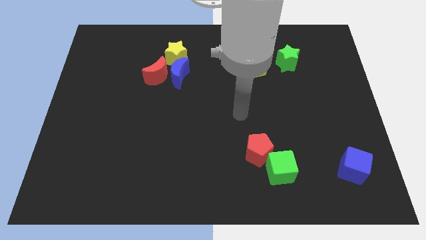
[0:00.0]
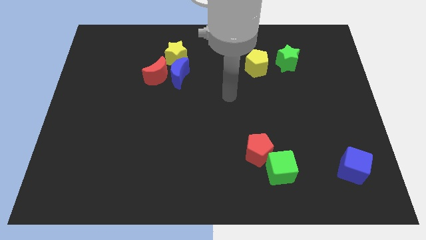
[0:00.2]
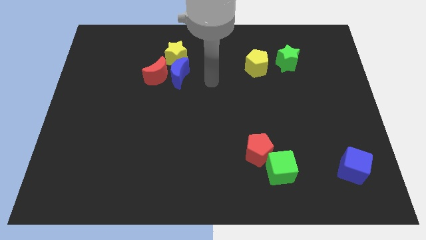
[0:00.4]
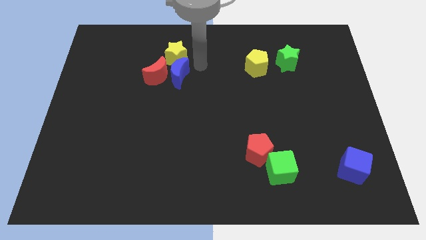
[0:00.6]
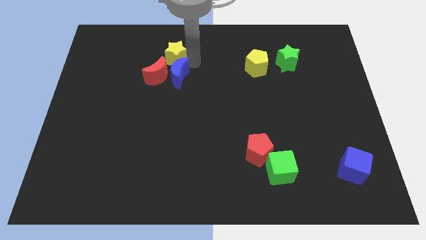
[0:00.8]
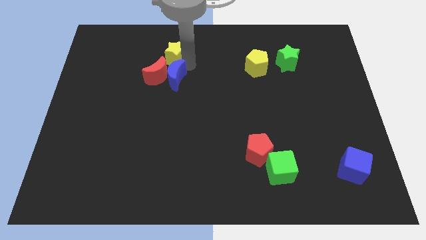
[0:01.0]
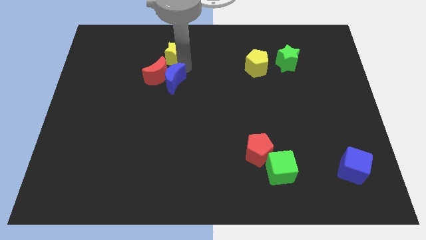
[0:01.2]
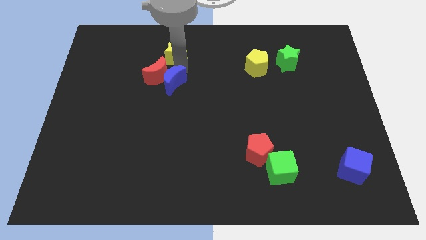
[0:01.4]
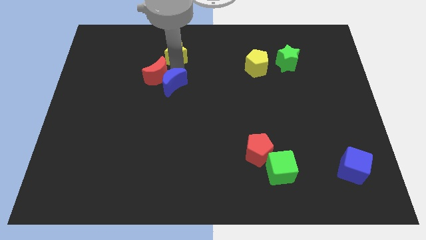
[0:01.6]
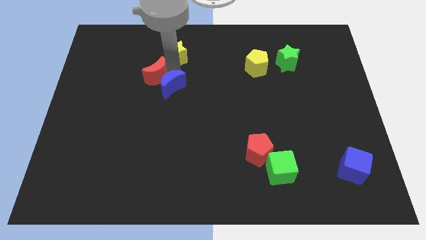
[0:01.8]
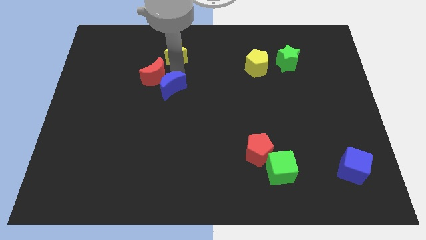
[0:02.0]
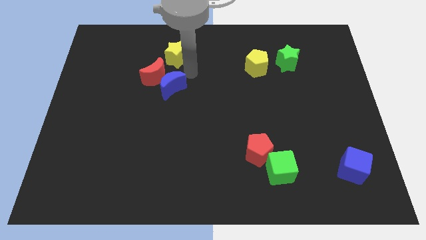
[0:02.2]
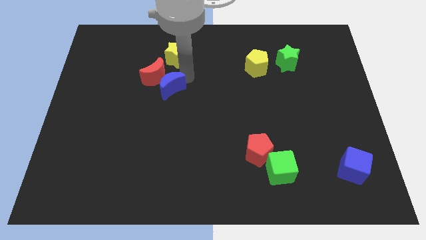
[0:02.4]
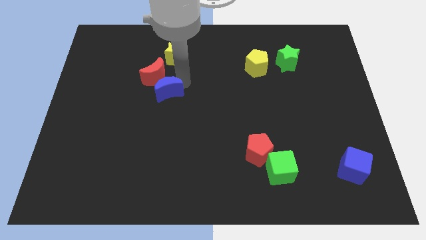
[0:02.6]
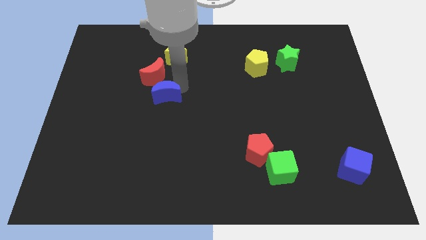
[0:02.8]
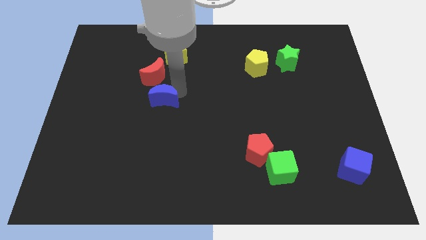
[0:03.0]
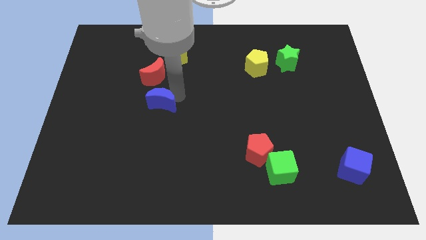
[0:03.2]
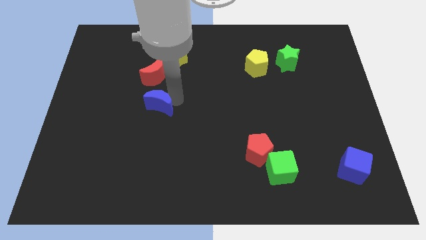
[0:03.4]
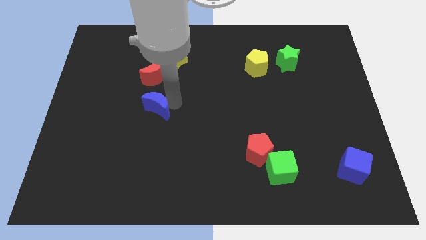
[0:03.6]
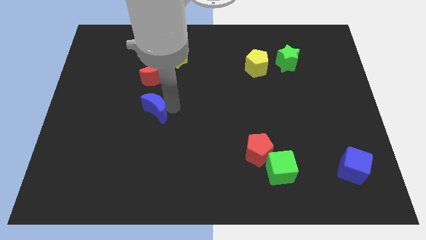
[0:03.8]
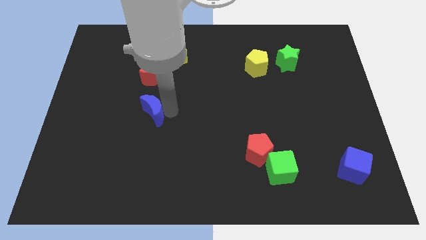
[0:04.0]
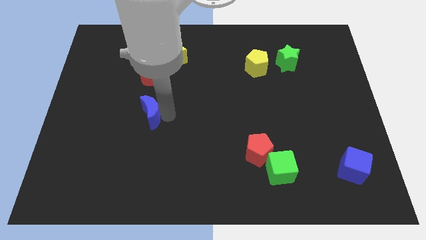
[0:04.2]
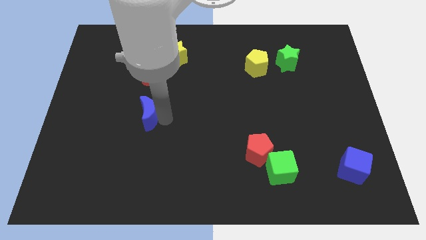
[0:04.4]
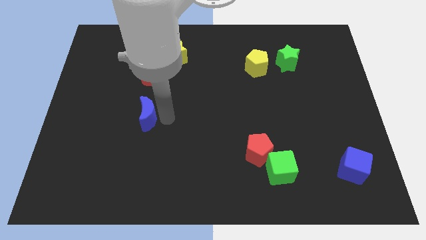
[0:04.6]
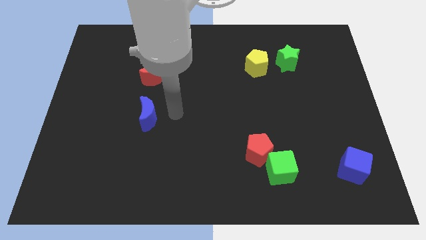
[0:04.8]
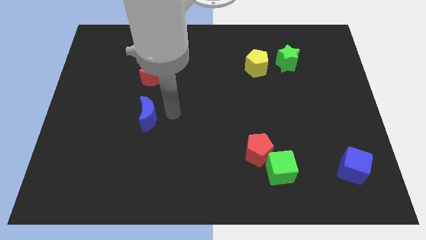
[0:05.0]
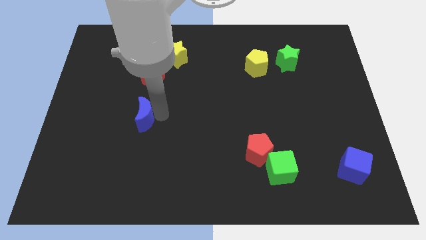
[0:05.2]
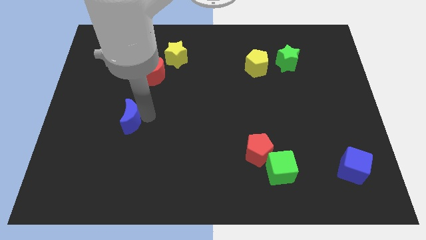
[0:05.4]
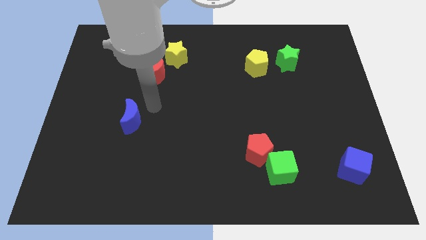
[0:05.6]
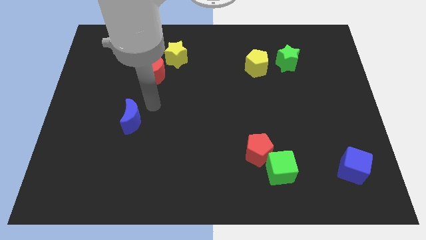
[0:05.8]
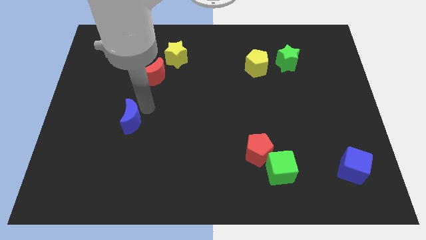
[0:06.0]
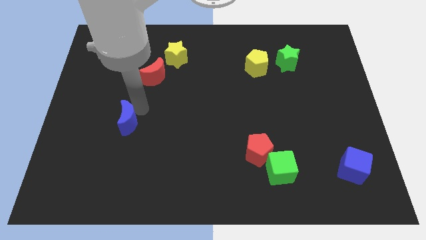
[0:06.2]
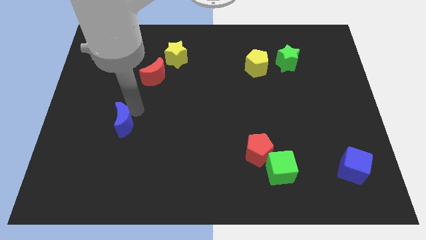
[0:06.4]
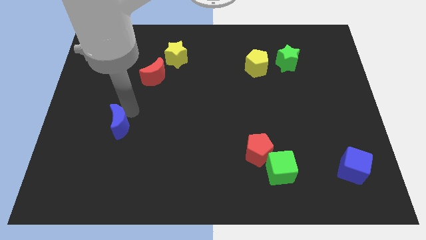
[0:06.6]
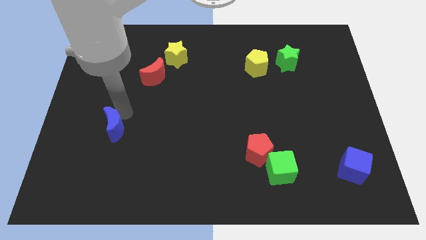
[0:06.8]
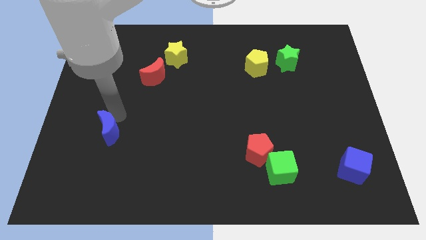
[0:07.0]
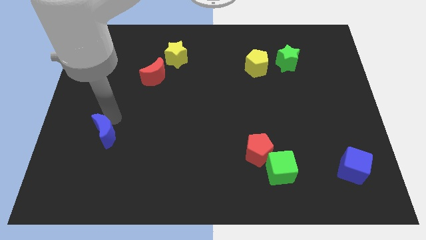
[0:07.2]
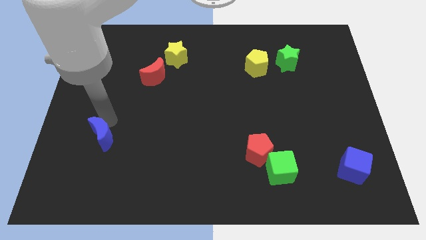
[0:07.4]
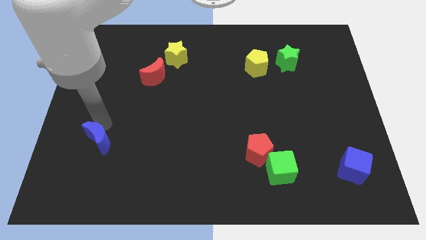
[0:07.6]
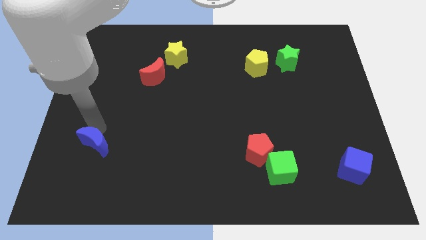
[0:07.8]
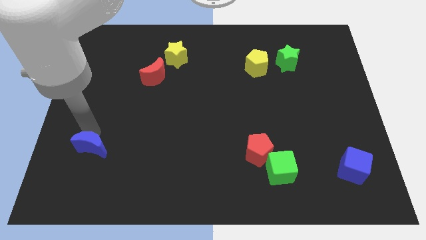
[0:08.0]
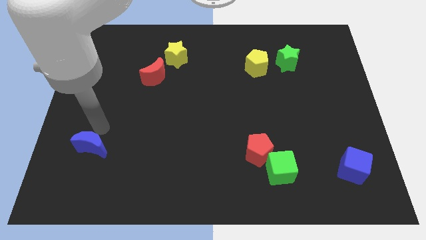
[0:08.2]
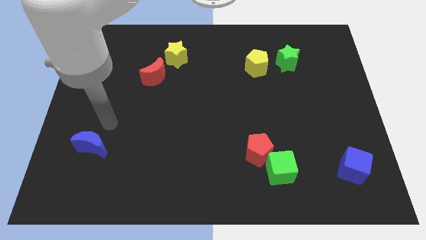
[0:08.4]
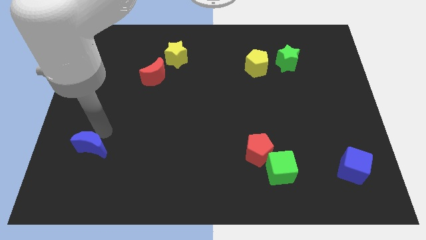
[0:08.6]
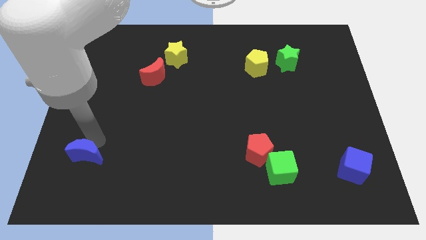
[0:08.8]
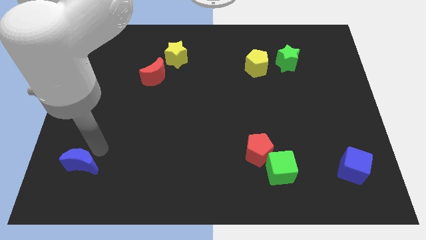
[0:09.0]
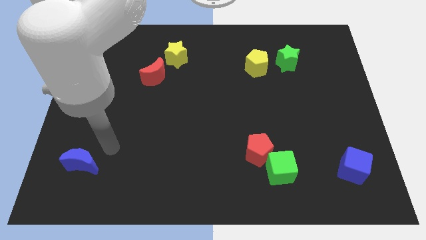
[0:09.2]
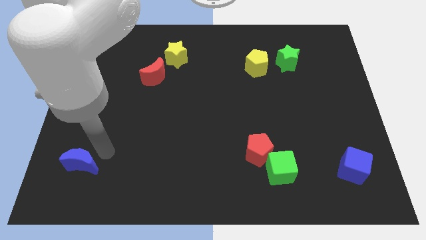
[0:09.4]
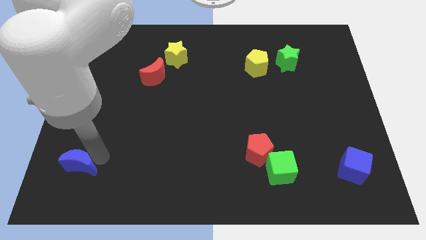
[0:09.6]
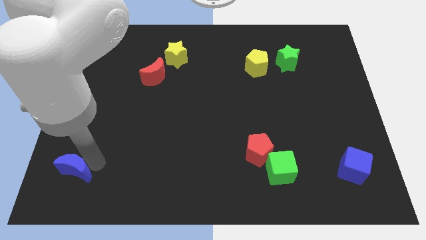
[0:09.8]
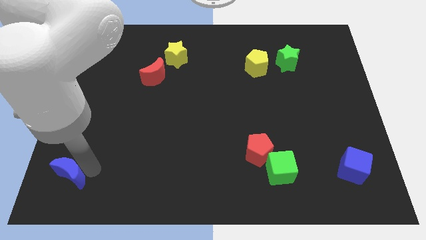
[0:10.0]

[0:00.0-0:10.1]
push the blue moon to the bottom left

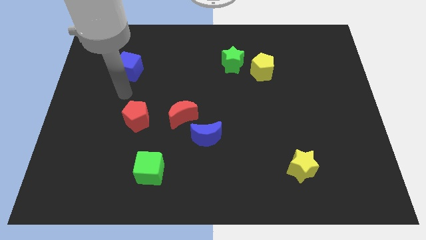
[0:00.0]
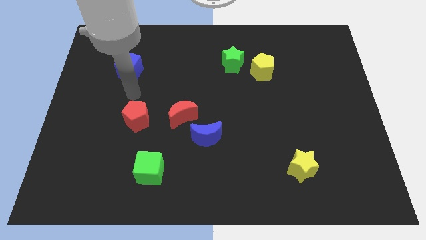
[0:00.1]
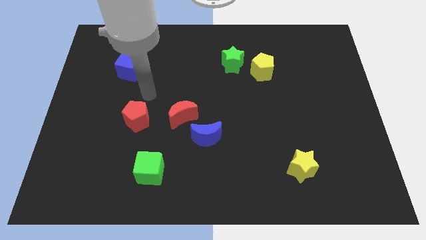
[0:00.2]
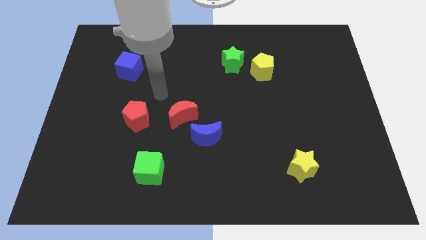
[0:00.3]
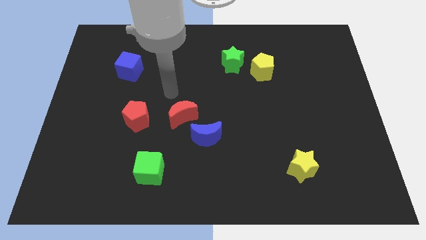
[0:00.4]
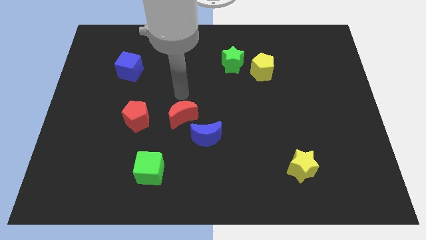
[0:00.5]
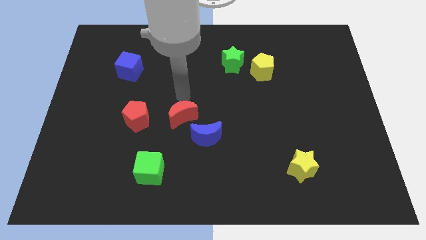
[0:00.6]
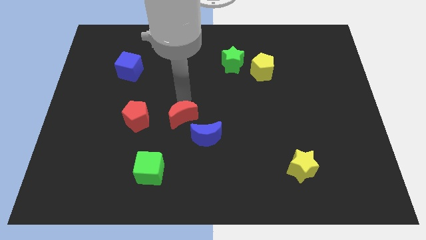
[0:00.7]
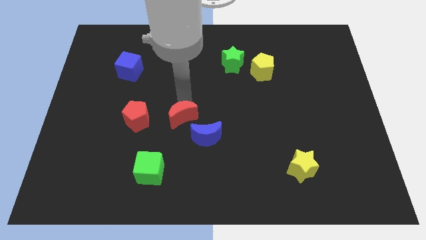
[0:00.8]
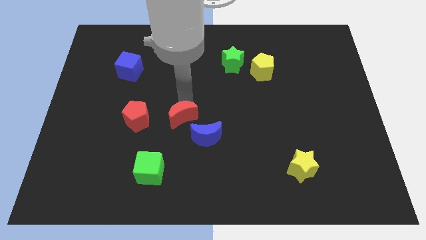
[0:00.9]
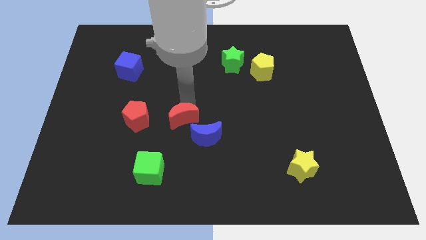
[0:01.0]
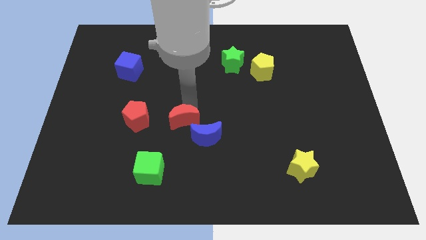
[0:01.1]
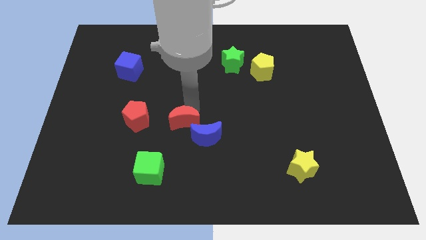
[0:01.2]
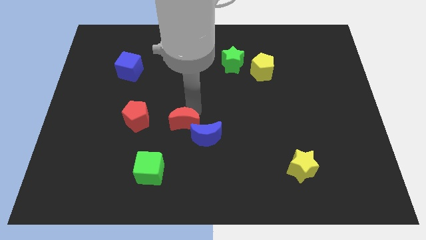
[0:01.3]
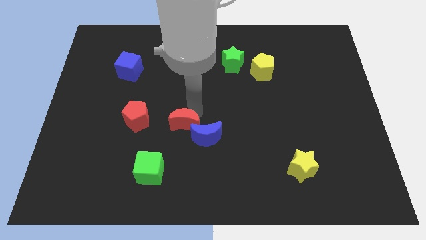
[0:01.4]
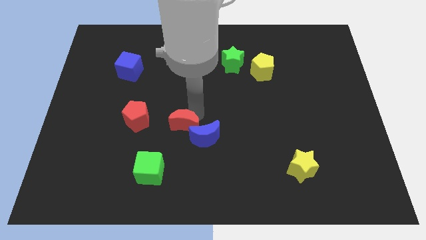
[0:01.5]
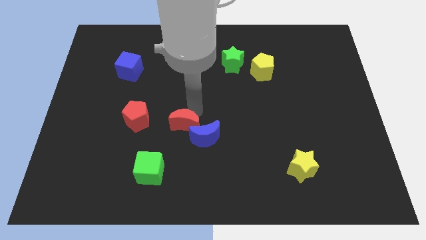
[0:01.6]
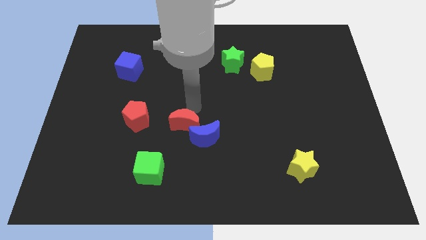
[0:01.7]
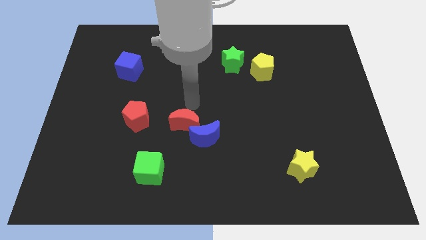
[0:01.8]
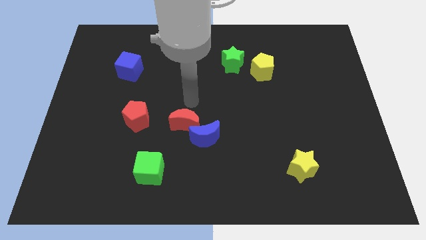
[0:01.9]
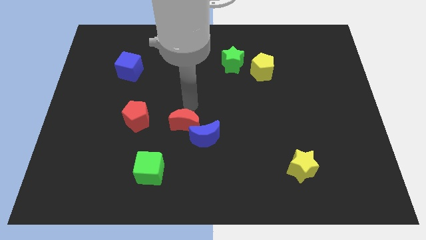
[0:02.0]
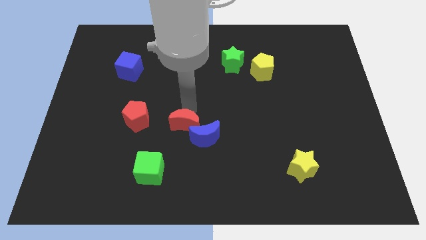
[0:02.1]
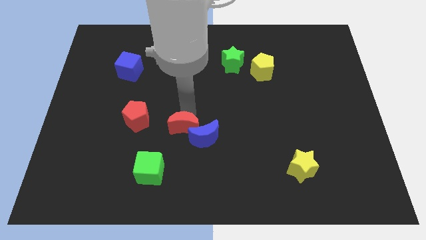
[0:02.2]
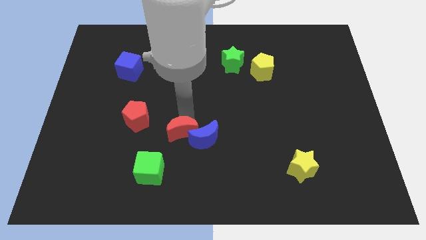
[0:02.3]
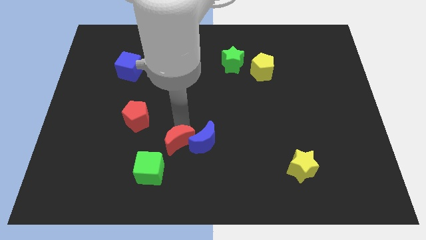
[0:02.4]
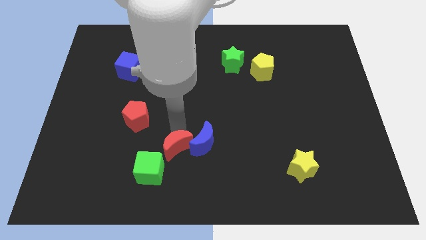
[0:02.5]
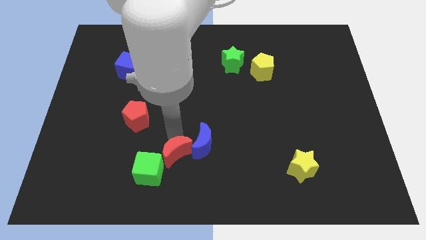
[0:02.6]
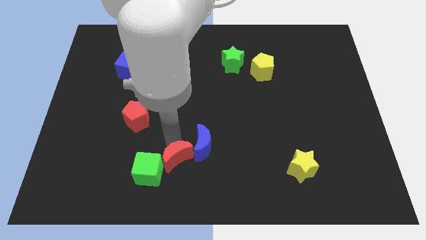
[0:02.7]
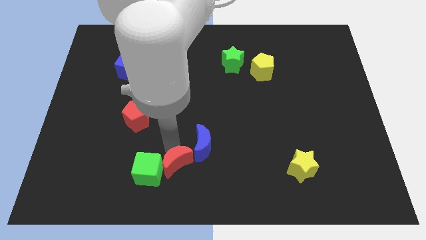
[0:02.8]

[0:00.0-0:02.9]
put the red moon to the bottom side
